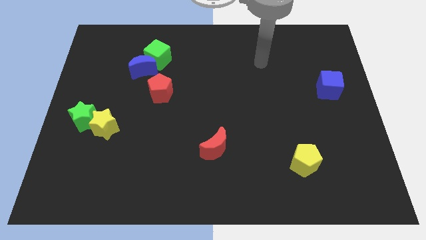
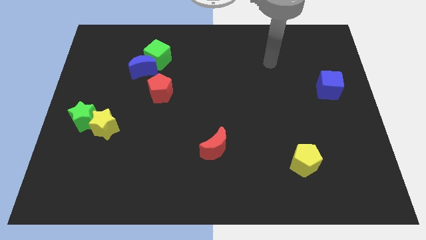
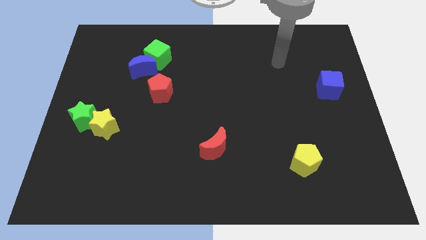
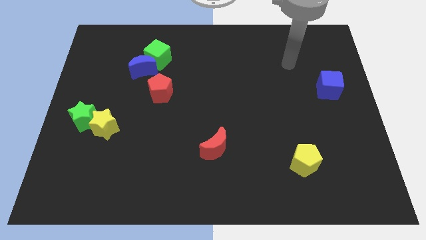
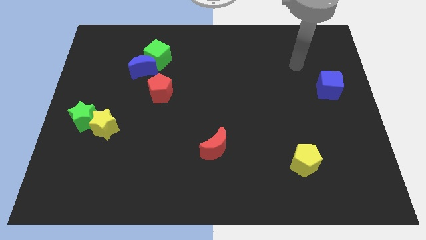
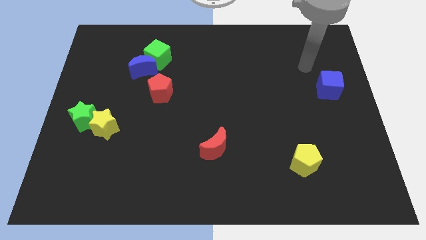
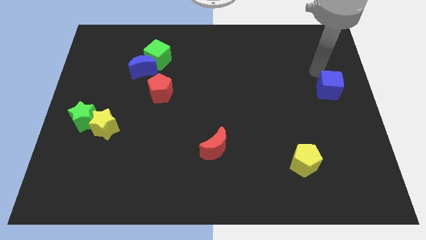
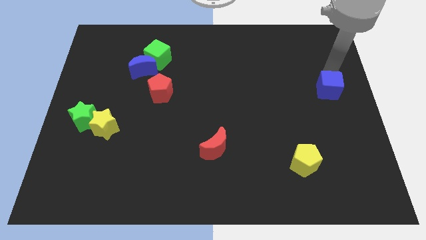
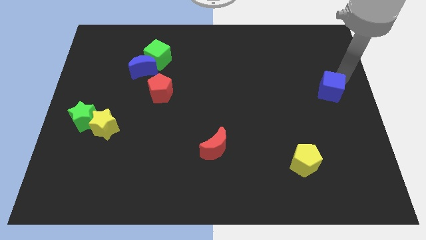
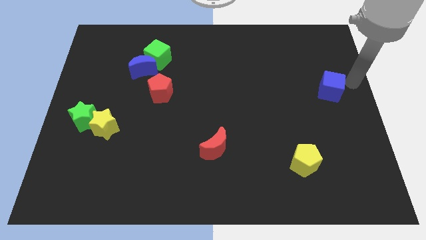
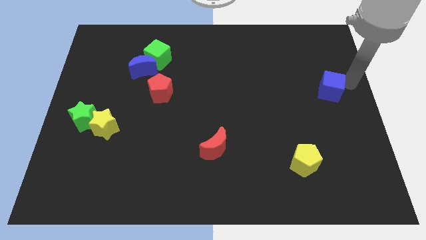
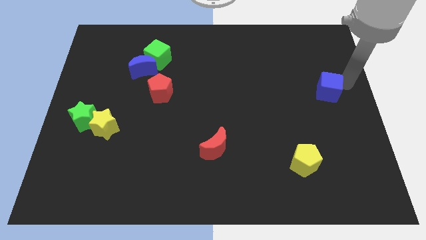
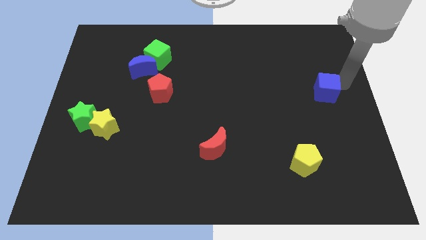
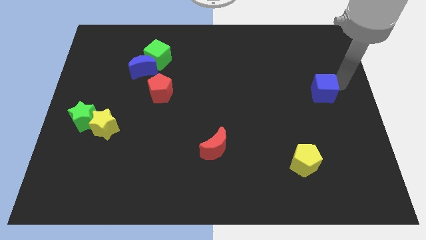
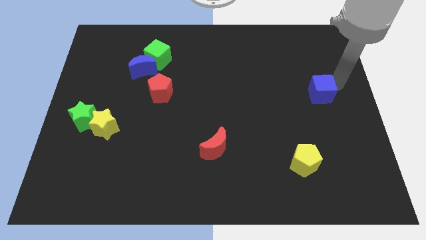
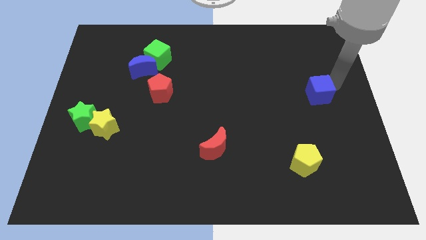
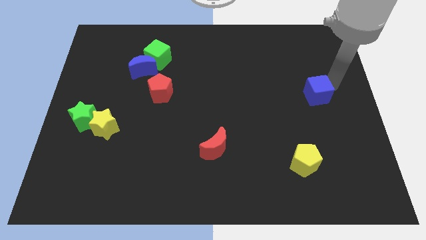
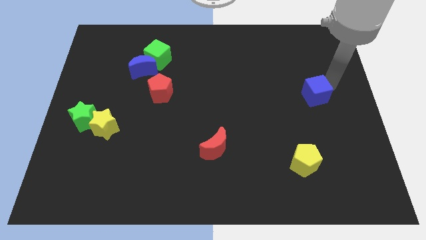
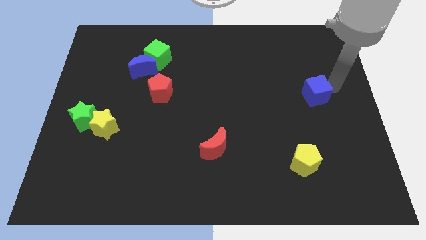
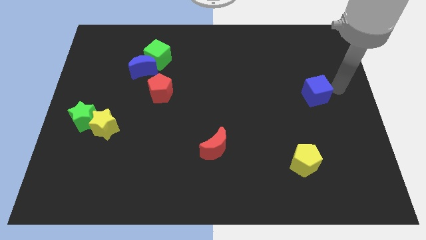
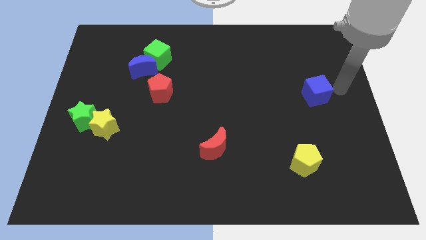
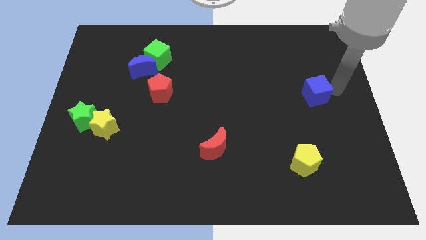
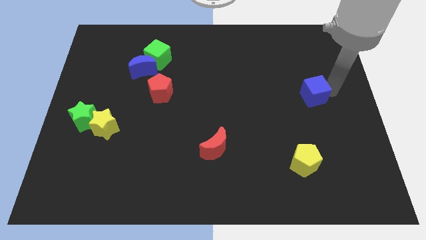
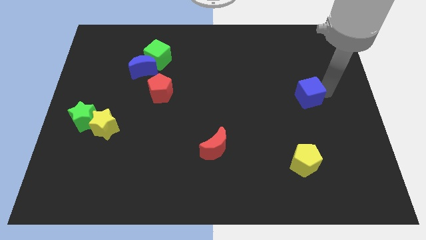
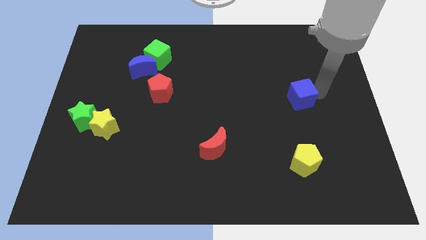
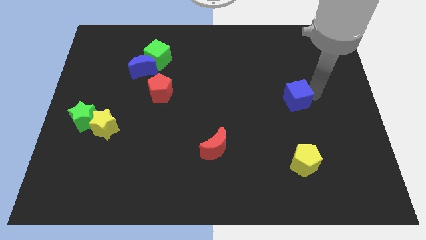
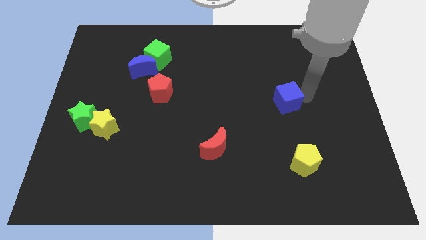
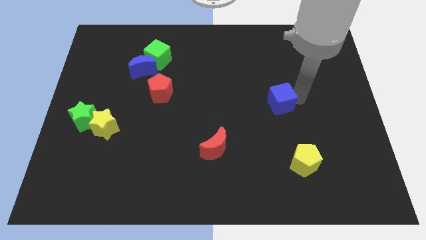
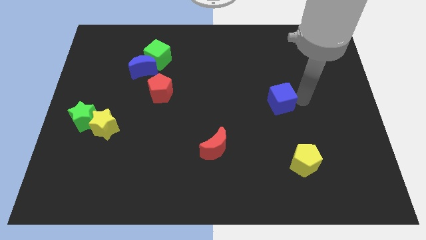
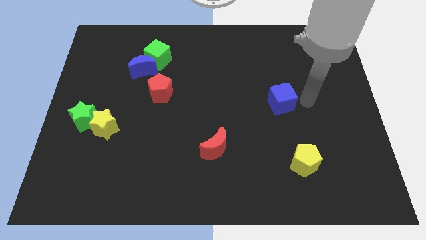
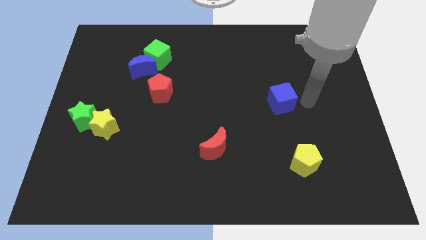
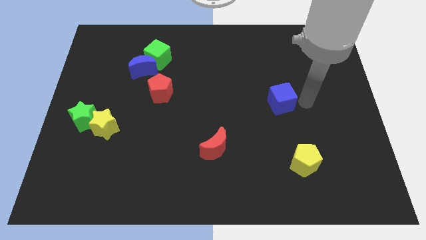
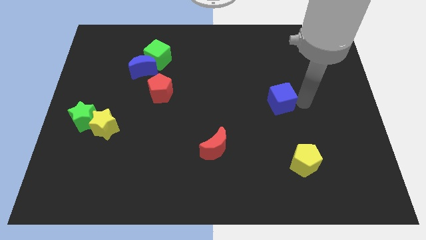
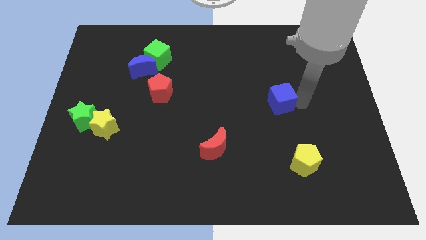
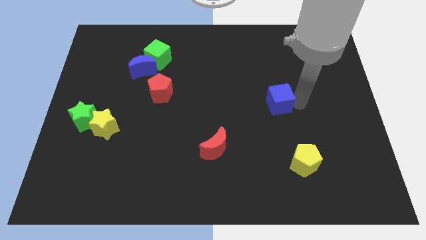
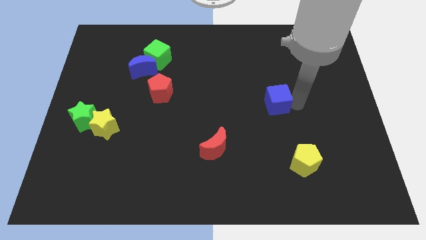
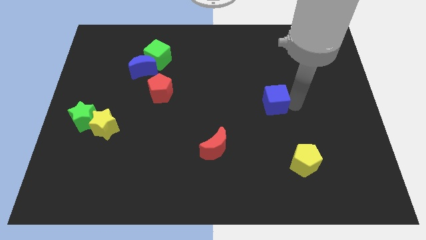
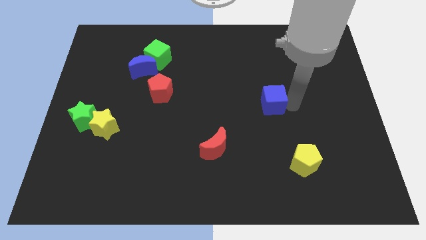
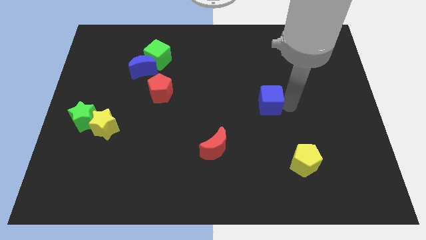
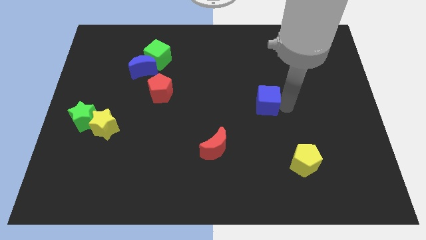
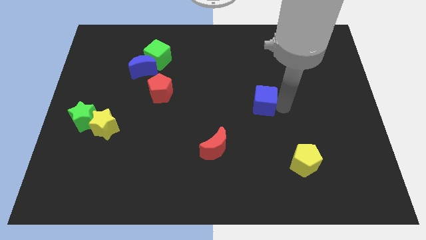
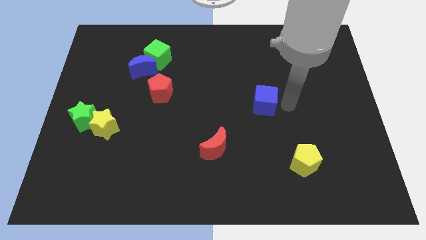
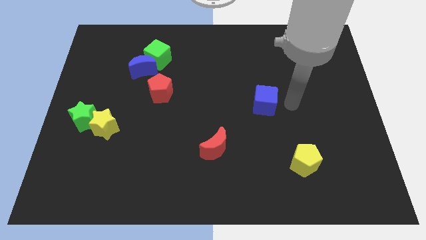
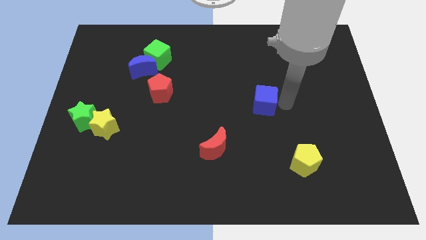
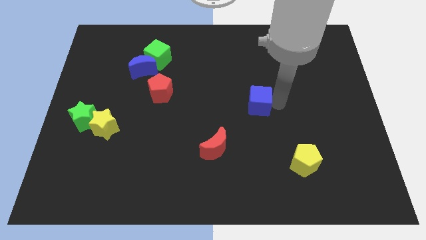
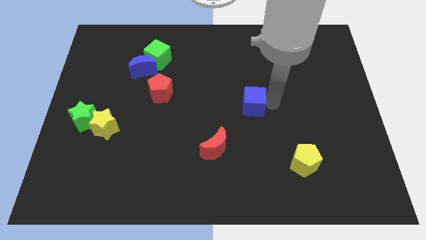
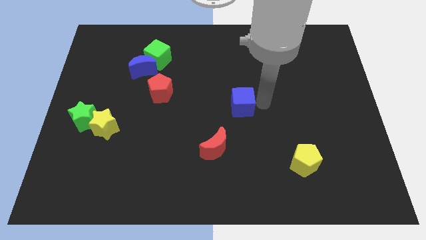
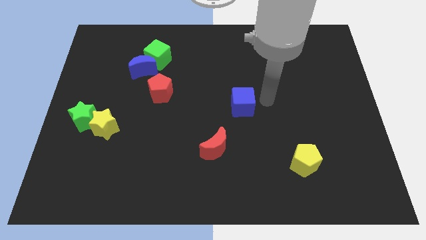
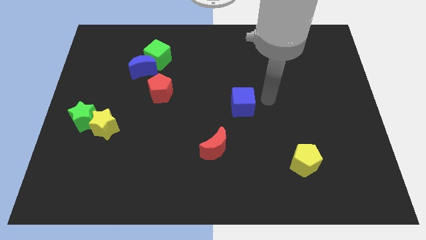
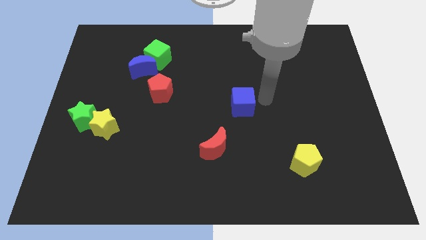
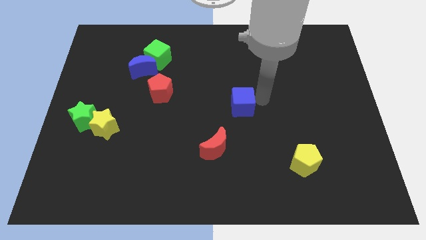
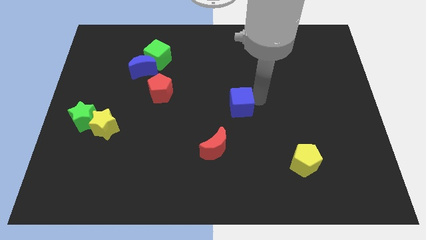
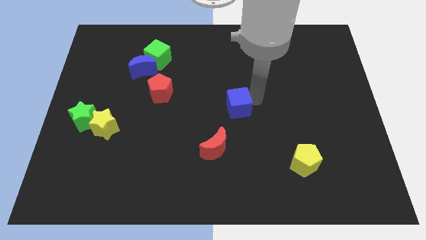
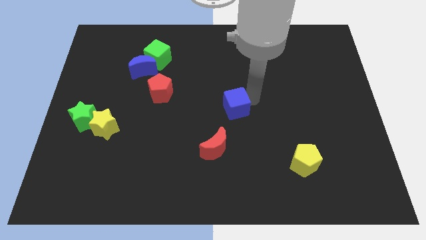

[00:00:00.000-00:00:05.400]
slide the blue cube to the top of the red moon

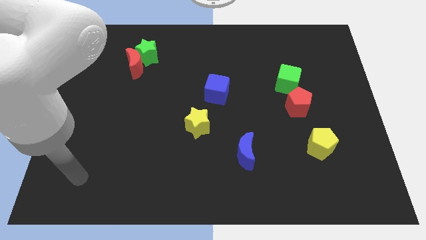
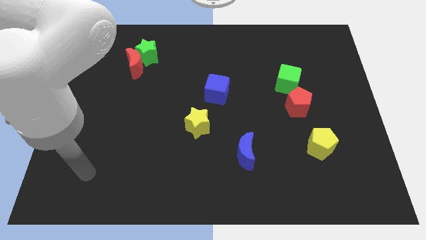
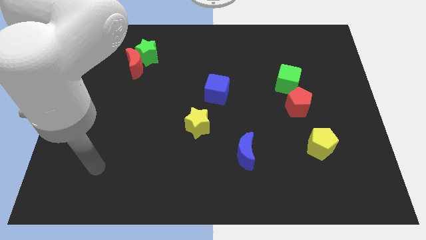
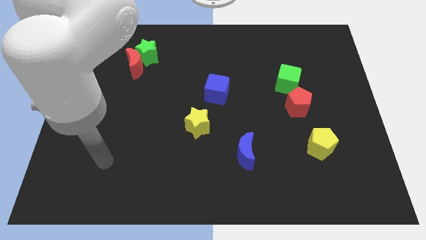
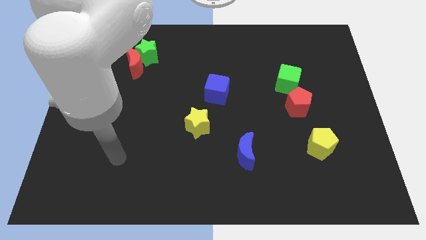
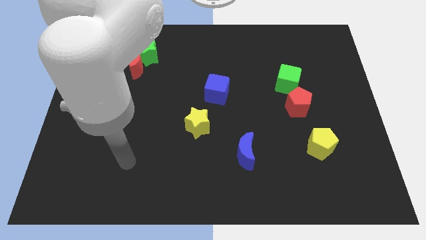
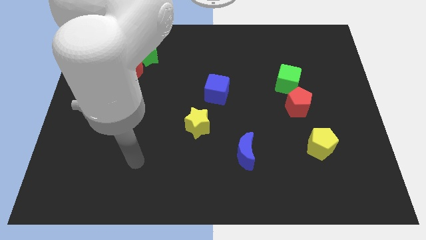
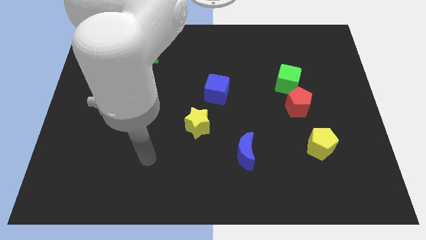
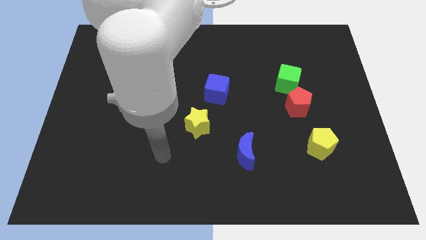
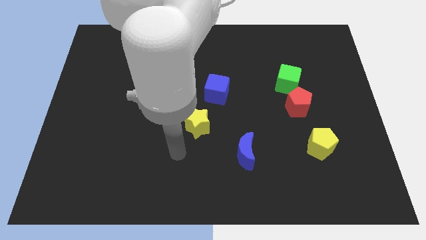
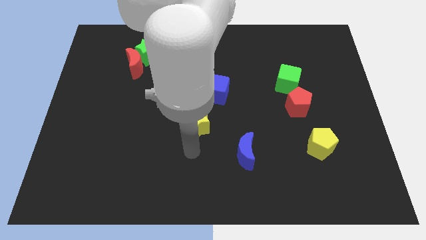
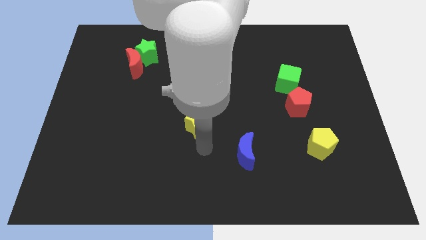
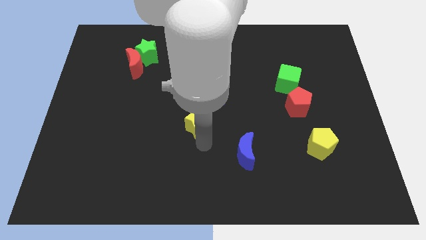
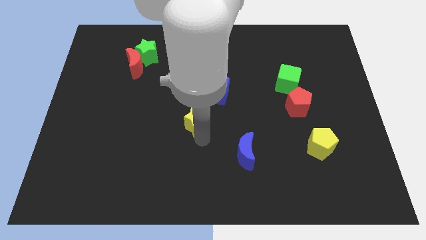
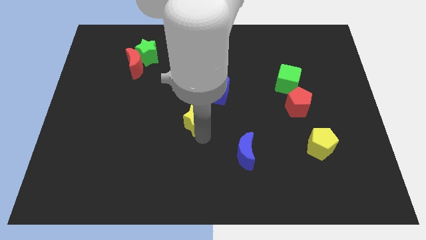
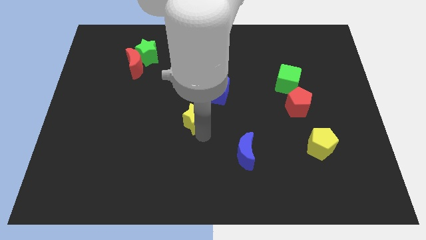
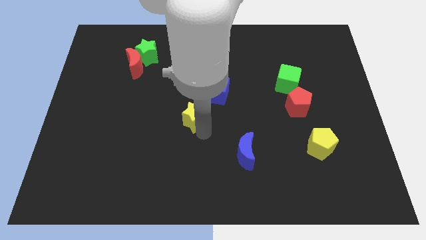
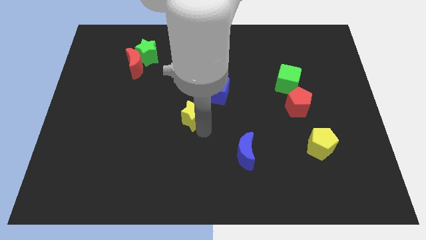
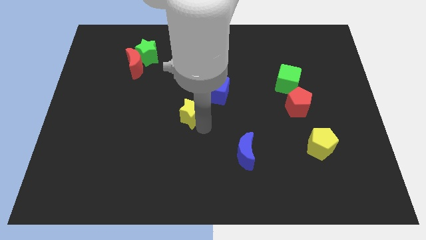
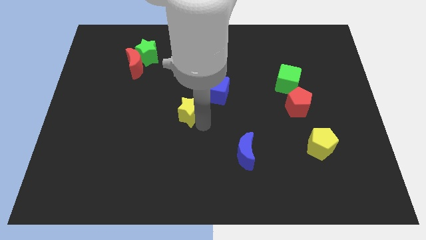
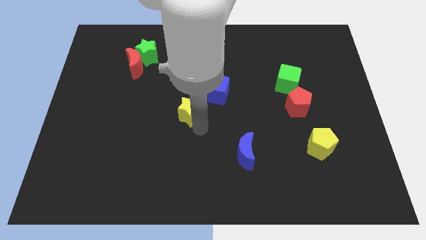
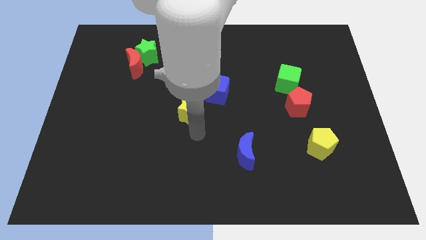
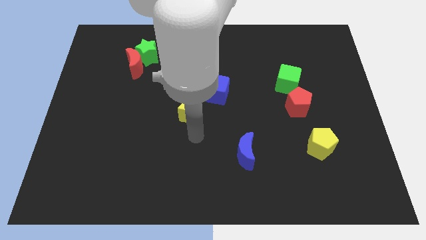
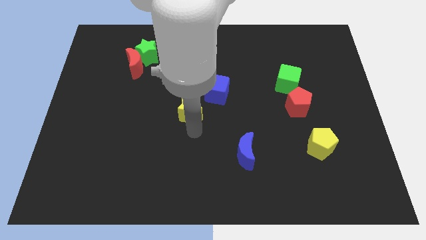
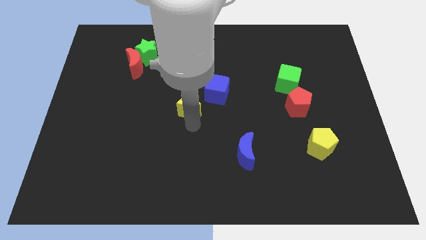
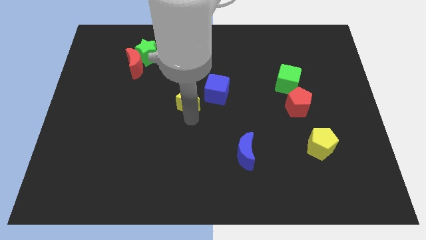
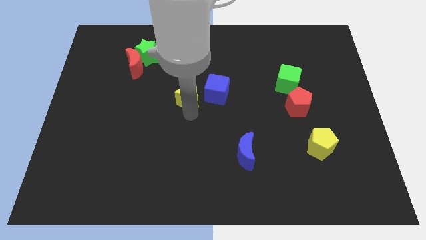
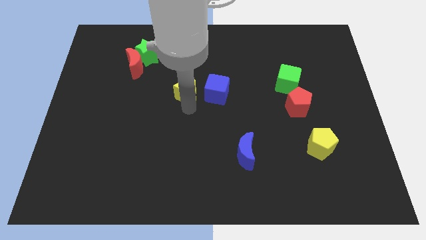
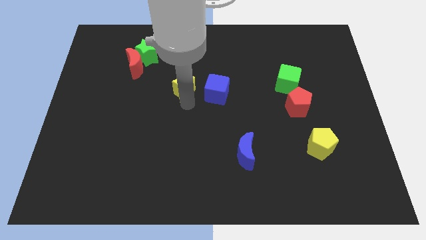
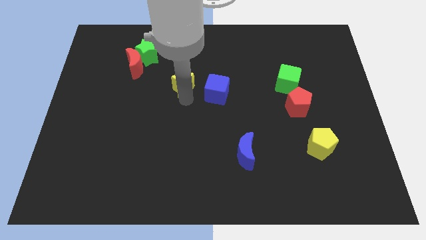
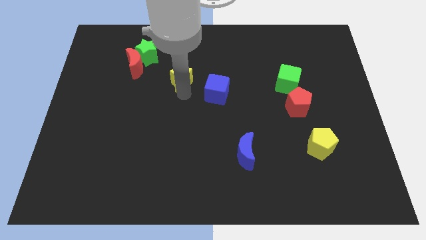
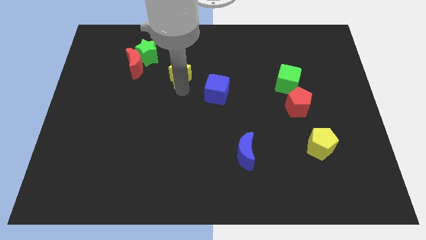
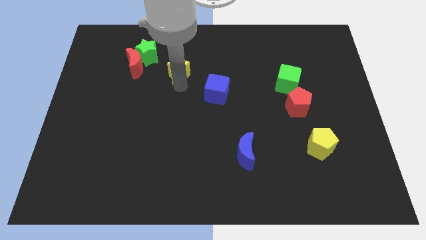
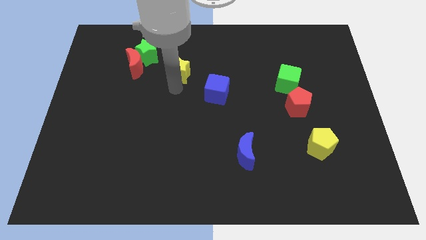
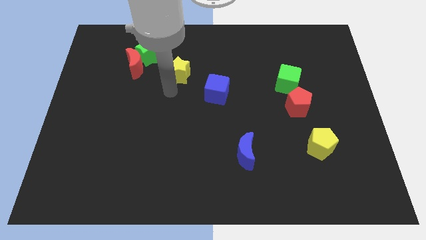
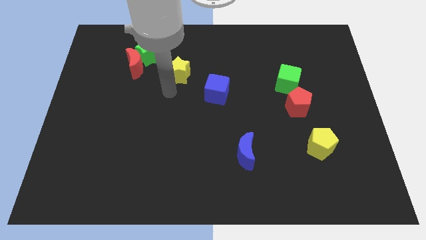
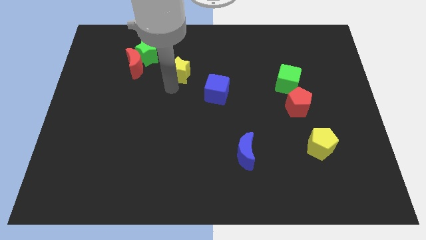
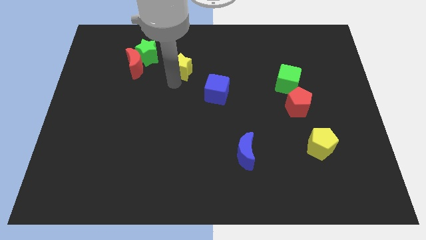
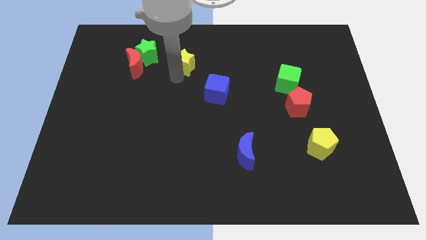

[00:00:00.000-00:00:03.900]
move the yellow star to the right side of the green star
